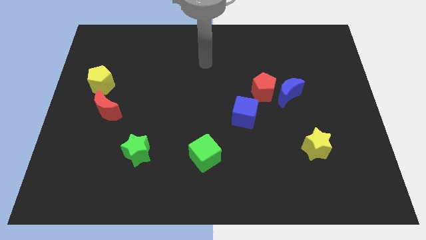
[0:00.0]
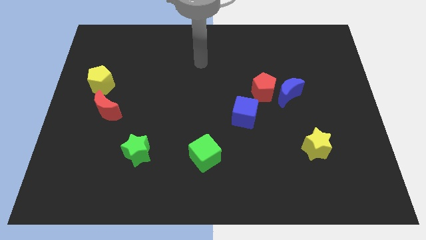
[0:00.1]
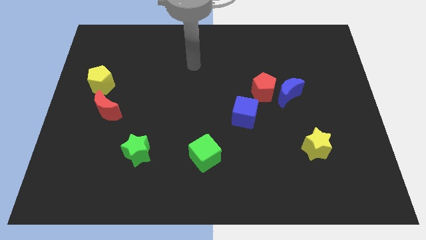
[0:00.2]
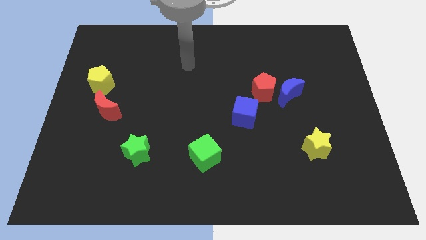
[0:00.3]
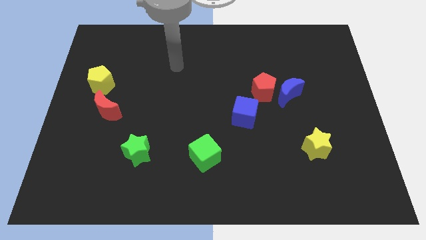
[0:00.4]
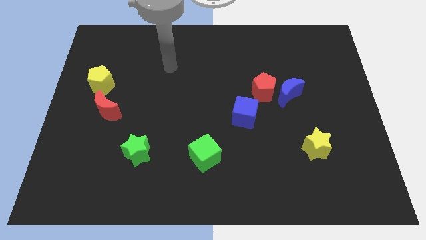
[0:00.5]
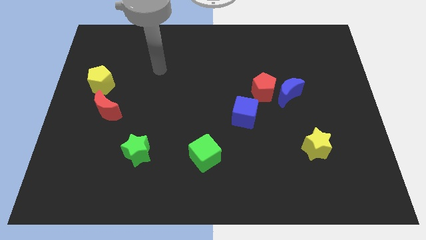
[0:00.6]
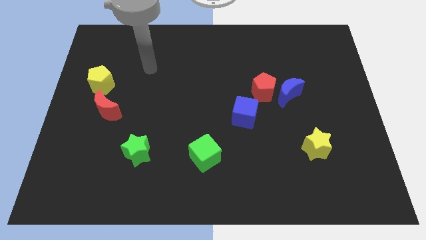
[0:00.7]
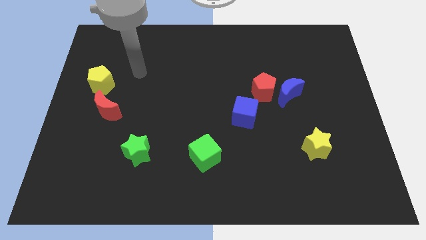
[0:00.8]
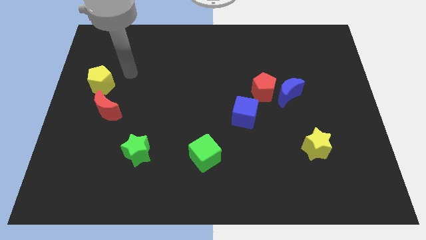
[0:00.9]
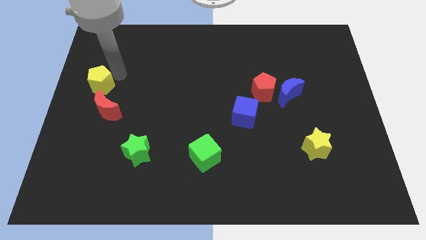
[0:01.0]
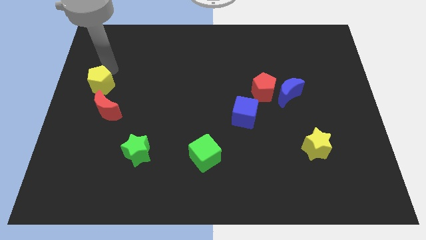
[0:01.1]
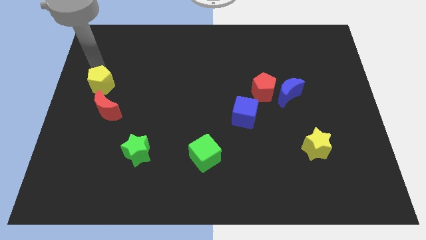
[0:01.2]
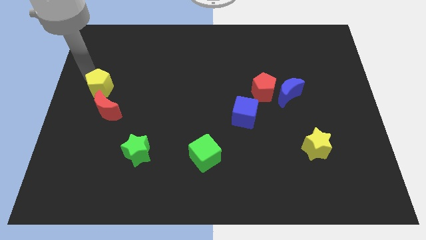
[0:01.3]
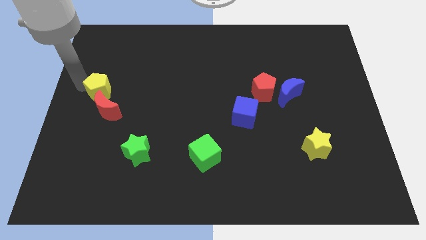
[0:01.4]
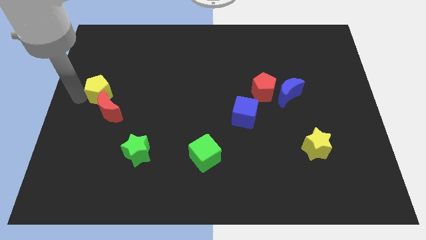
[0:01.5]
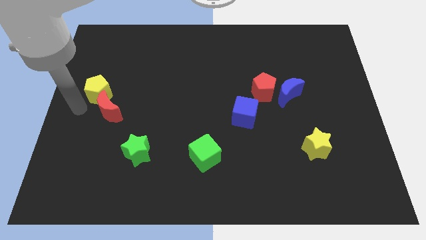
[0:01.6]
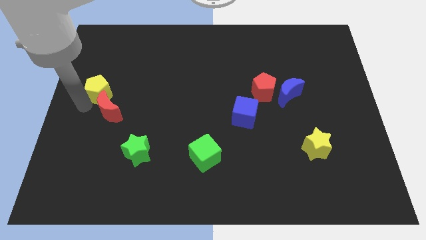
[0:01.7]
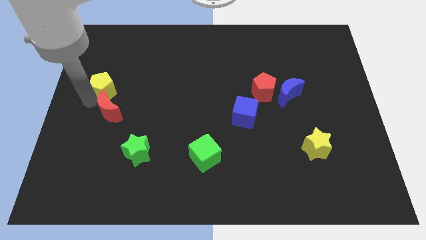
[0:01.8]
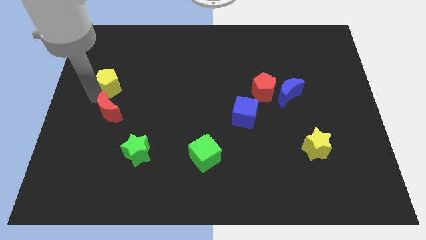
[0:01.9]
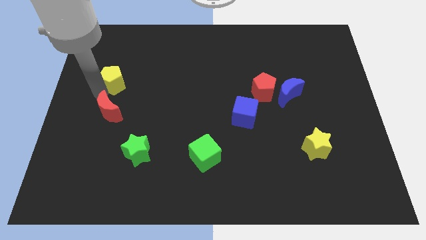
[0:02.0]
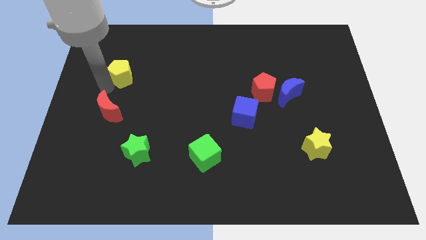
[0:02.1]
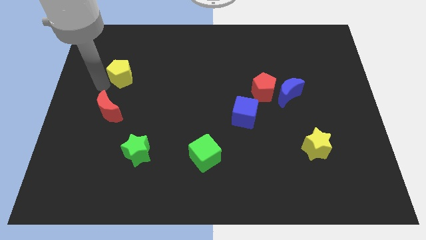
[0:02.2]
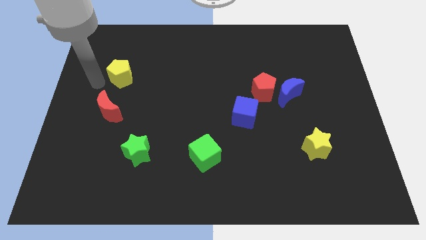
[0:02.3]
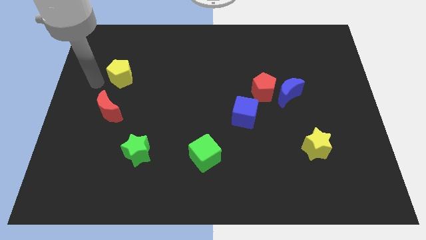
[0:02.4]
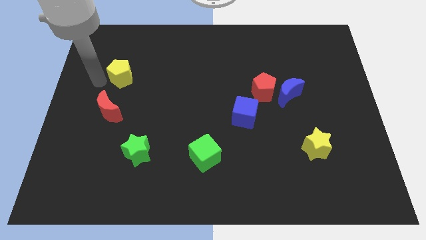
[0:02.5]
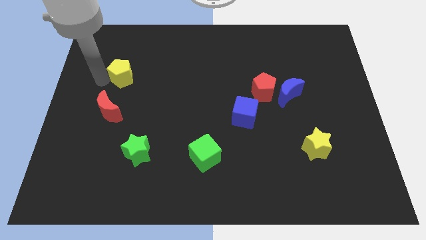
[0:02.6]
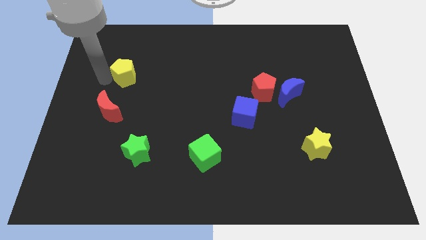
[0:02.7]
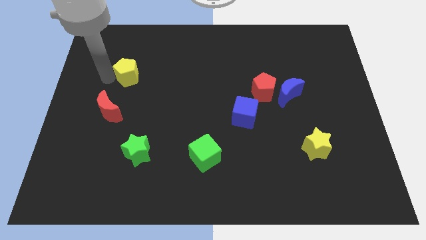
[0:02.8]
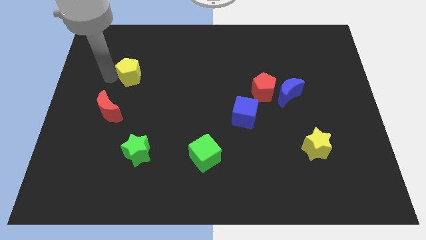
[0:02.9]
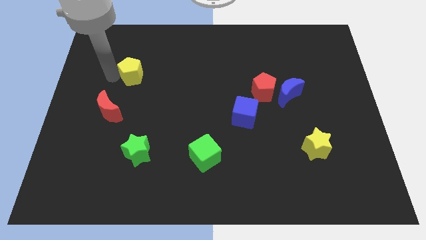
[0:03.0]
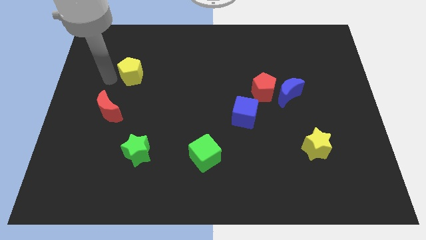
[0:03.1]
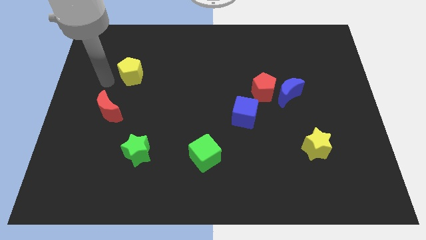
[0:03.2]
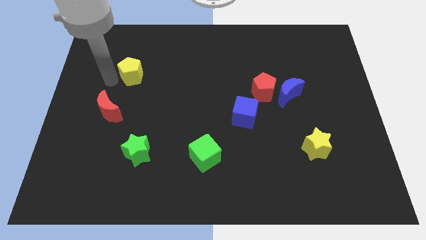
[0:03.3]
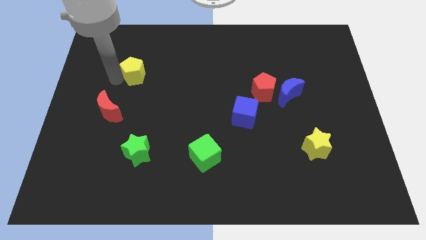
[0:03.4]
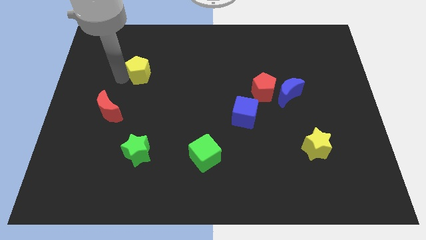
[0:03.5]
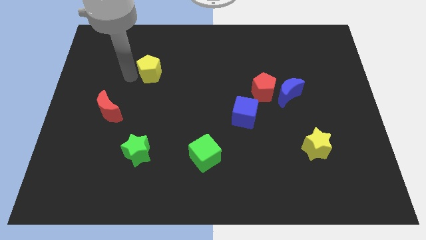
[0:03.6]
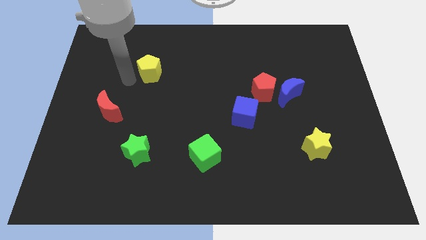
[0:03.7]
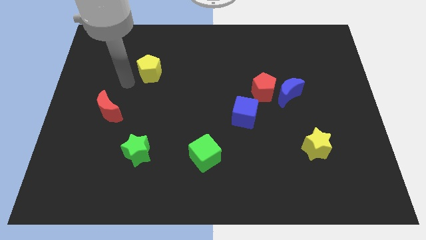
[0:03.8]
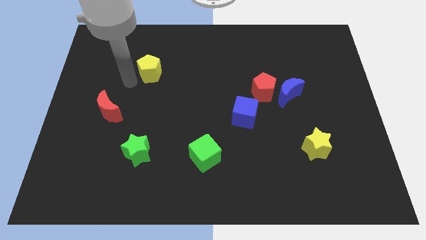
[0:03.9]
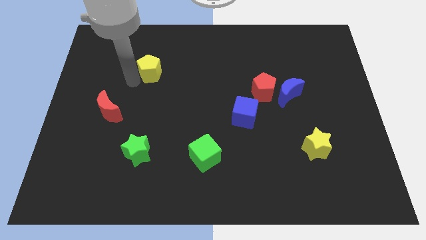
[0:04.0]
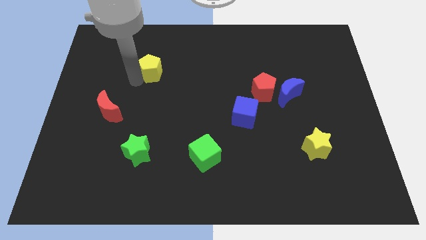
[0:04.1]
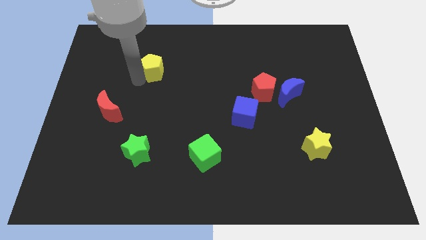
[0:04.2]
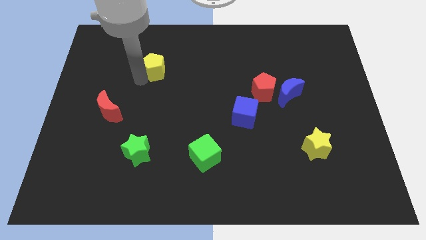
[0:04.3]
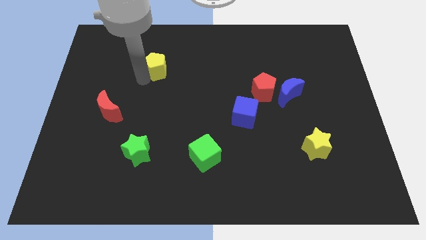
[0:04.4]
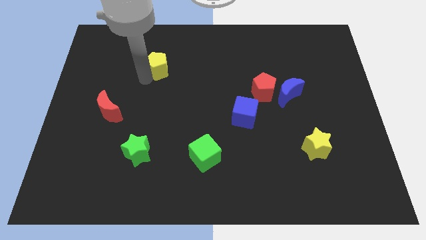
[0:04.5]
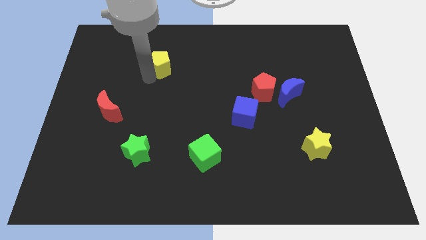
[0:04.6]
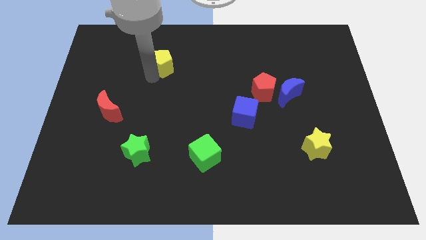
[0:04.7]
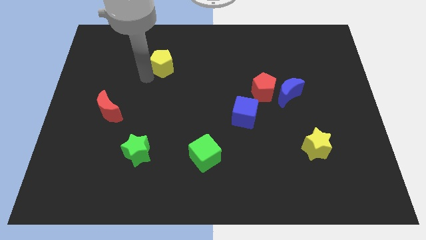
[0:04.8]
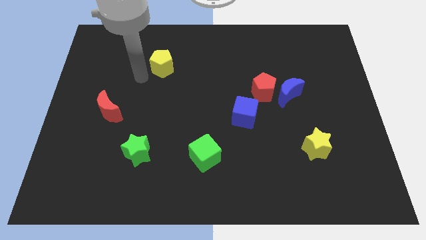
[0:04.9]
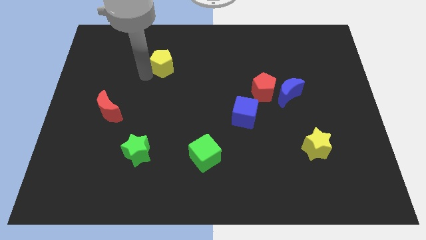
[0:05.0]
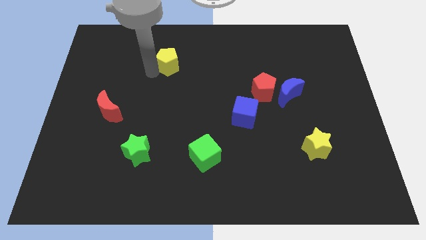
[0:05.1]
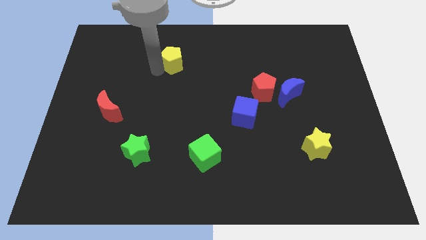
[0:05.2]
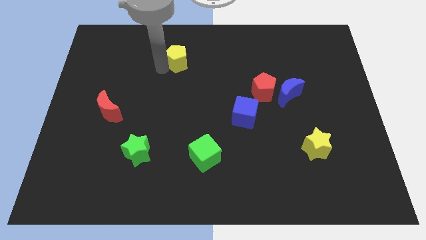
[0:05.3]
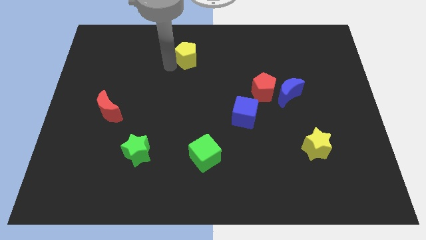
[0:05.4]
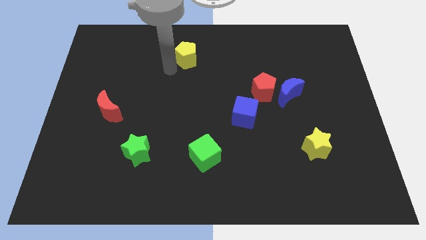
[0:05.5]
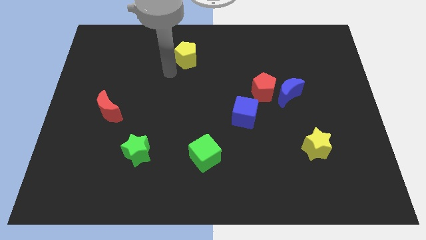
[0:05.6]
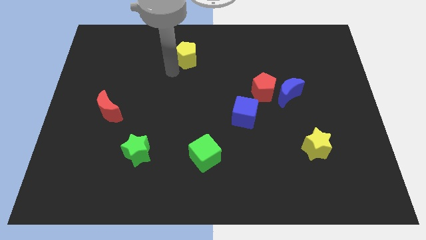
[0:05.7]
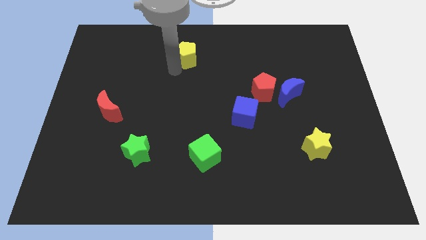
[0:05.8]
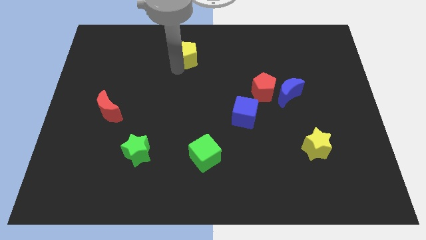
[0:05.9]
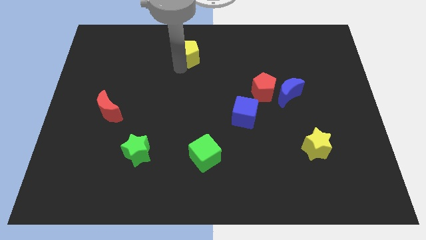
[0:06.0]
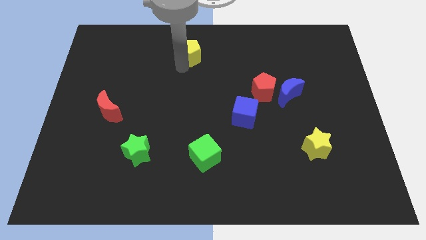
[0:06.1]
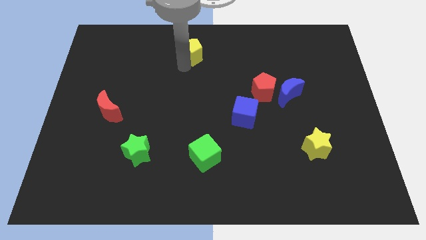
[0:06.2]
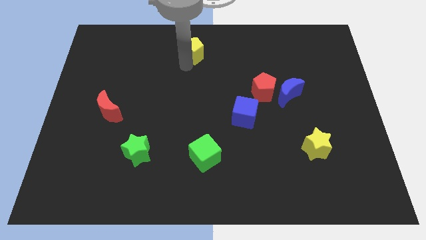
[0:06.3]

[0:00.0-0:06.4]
slide the yellow pentagon to the top side
